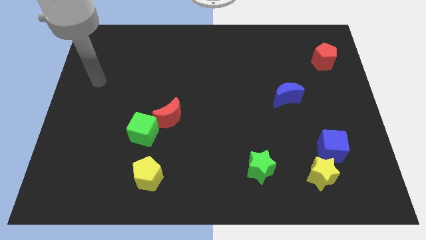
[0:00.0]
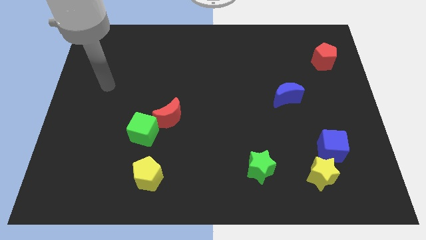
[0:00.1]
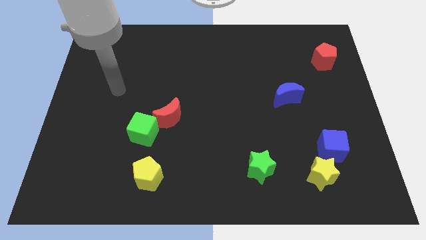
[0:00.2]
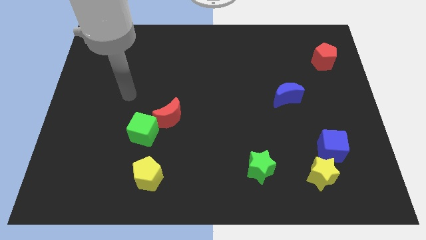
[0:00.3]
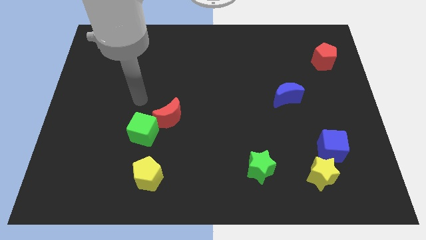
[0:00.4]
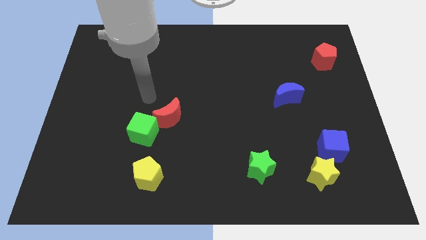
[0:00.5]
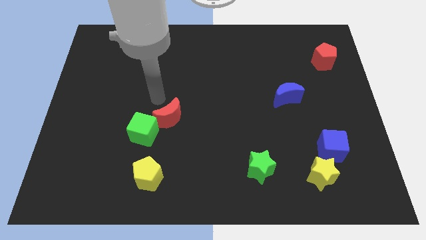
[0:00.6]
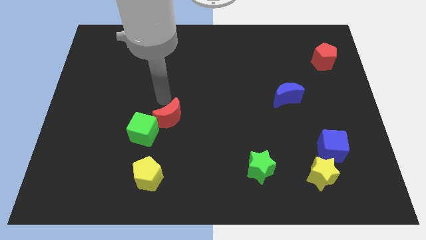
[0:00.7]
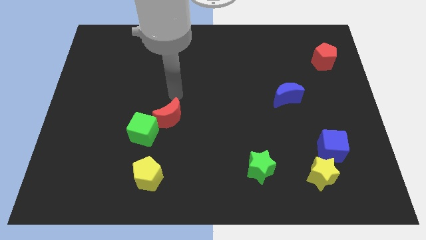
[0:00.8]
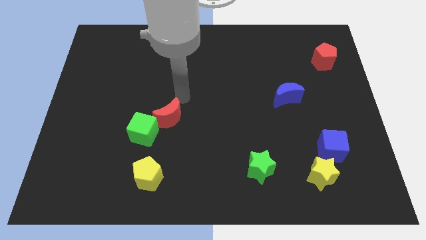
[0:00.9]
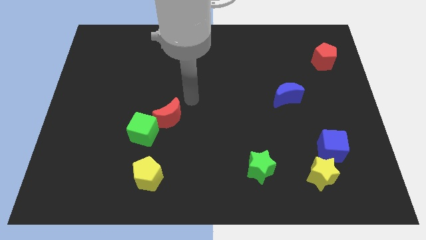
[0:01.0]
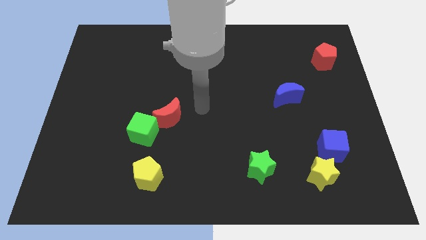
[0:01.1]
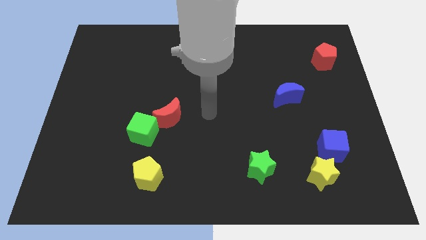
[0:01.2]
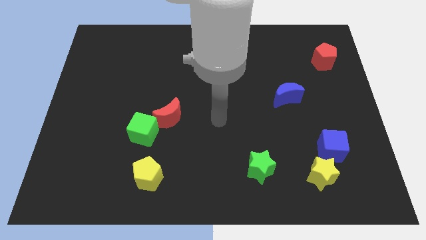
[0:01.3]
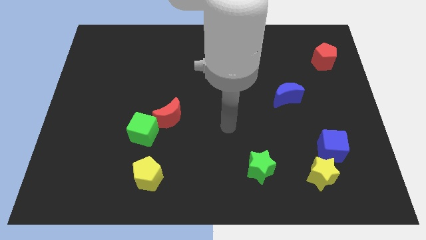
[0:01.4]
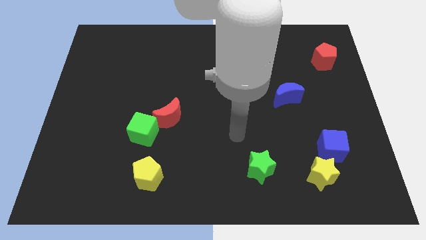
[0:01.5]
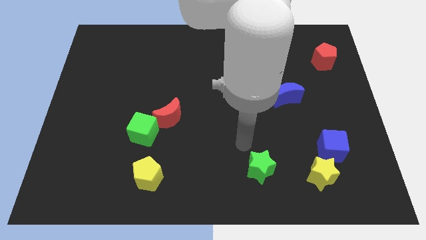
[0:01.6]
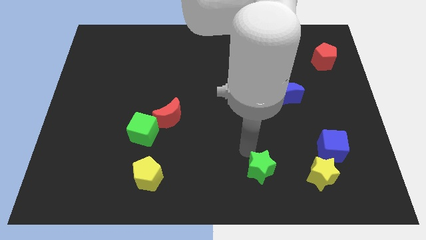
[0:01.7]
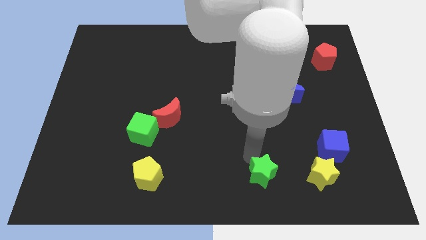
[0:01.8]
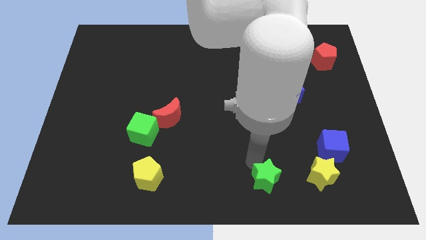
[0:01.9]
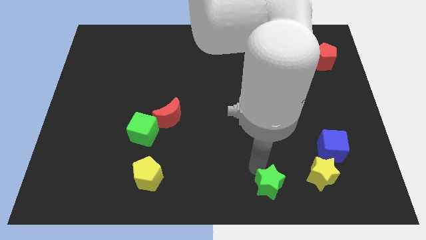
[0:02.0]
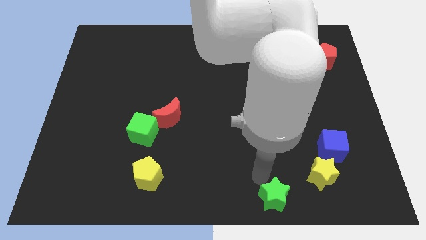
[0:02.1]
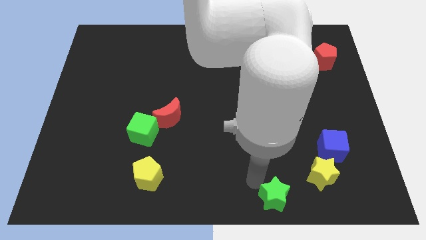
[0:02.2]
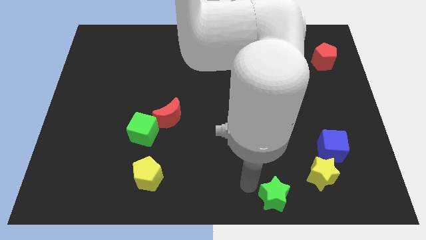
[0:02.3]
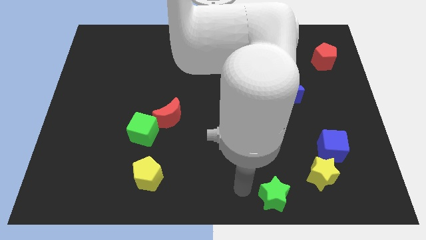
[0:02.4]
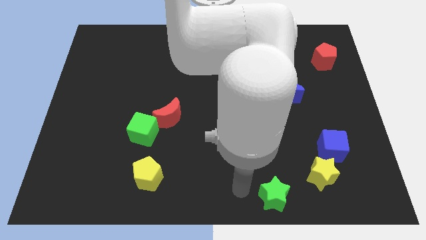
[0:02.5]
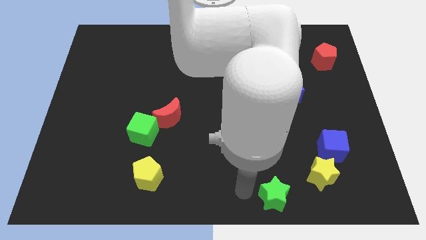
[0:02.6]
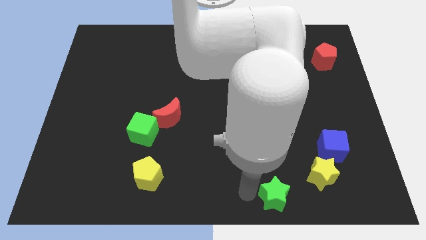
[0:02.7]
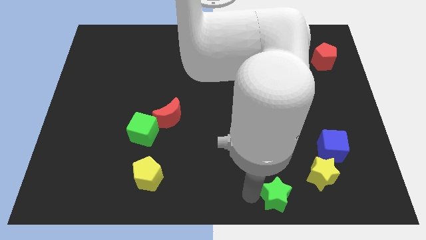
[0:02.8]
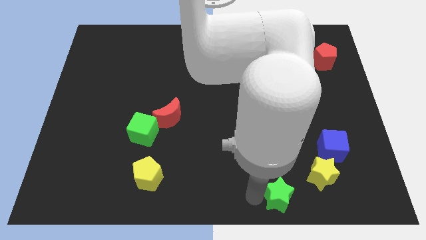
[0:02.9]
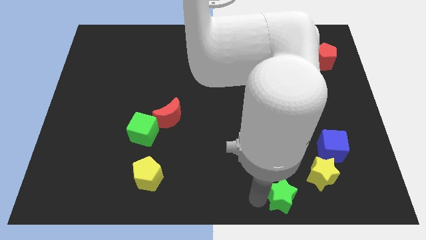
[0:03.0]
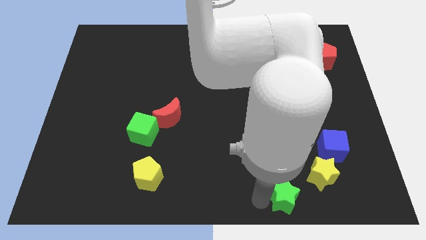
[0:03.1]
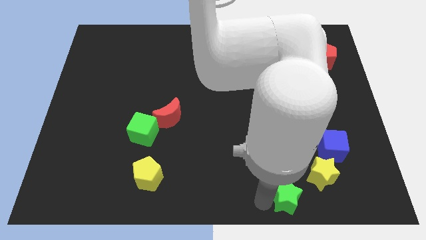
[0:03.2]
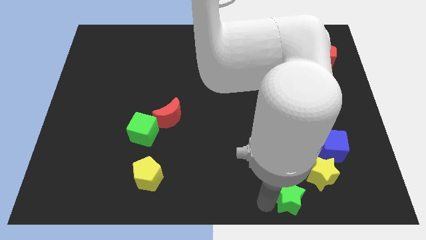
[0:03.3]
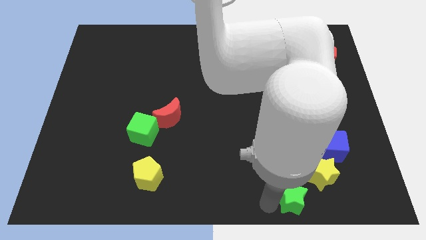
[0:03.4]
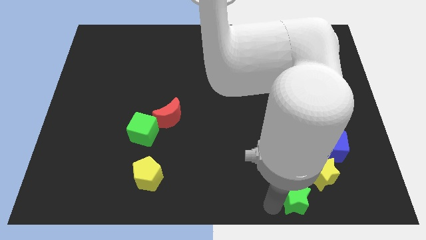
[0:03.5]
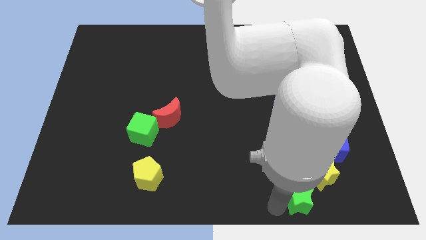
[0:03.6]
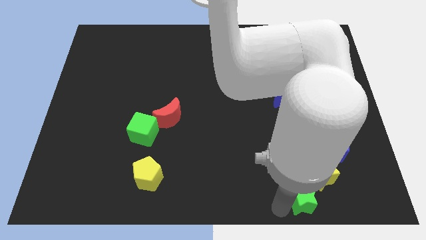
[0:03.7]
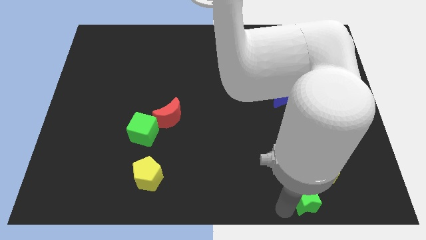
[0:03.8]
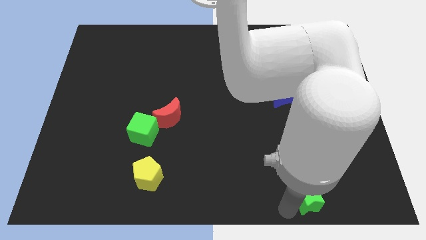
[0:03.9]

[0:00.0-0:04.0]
slide the green star to the right somewhat

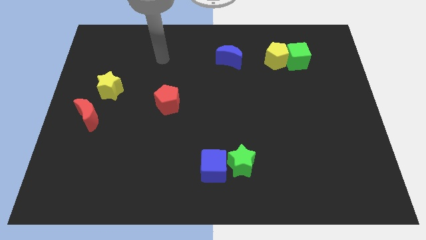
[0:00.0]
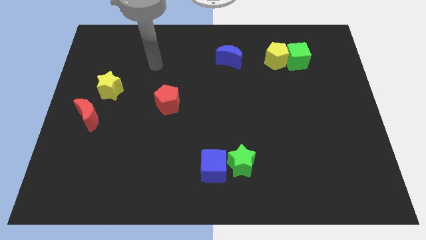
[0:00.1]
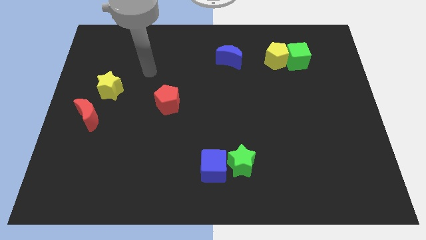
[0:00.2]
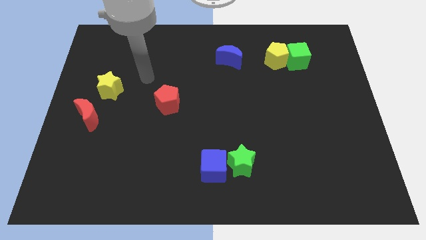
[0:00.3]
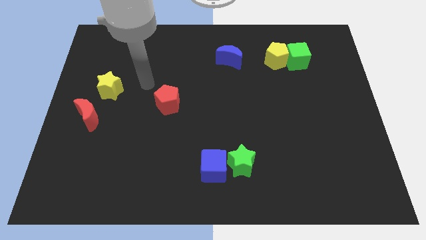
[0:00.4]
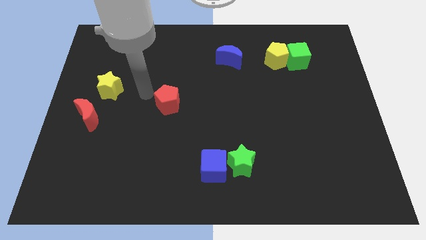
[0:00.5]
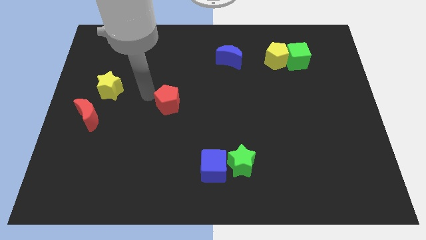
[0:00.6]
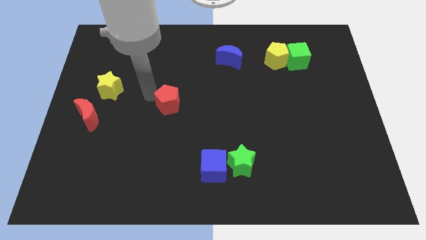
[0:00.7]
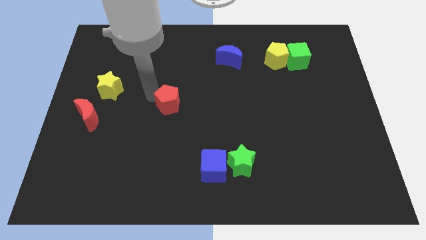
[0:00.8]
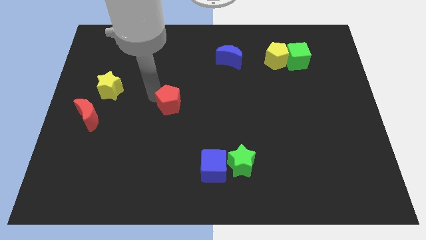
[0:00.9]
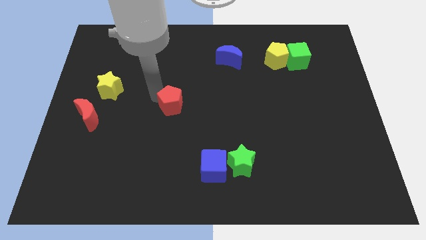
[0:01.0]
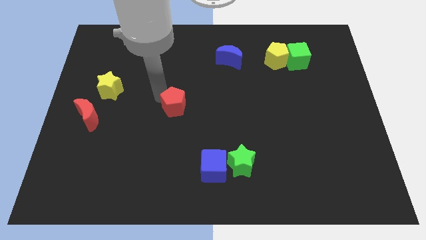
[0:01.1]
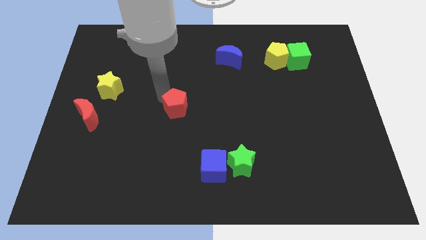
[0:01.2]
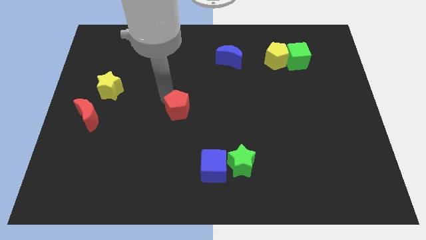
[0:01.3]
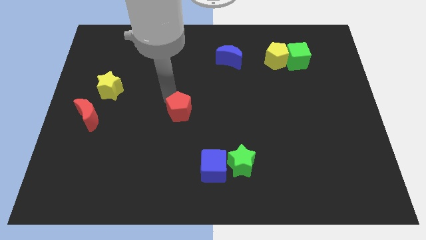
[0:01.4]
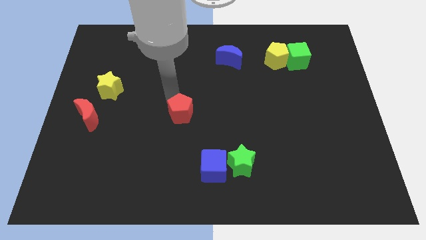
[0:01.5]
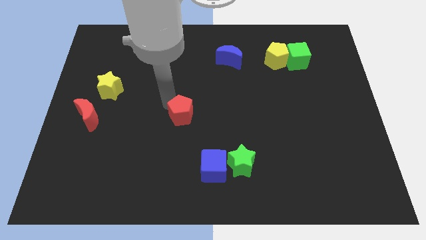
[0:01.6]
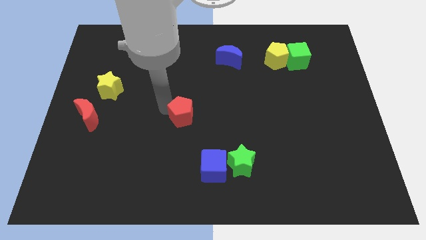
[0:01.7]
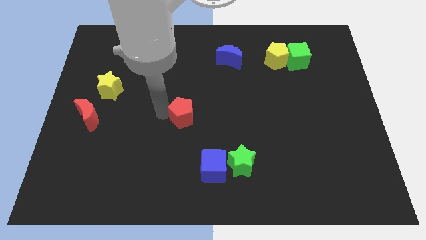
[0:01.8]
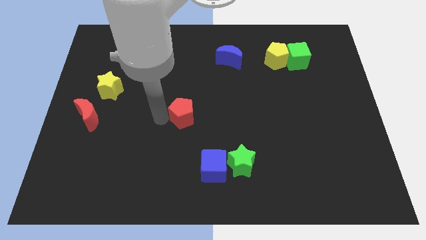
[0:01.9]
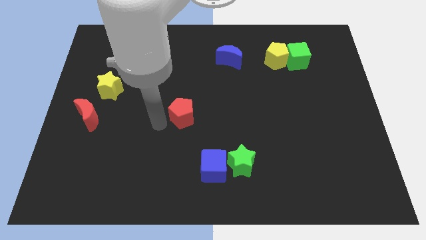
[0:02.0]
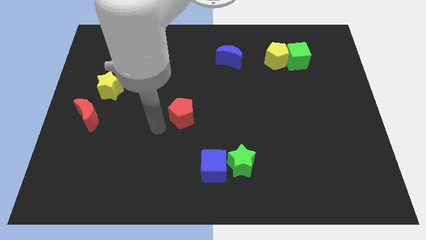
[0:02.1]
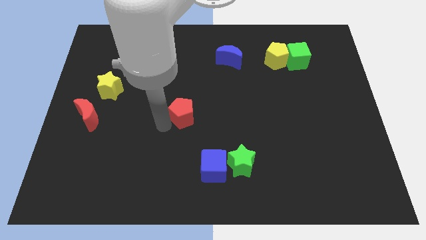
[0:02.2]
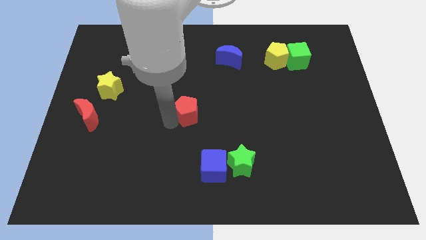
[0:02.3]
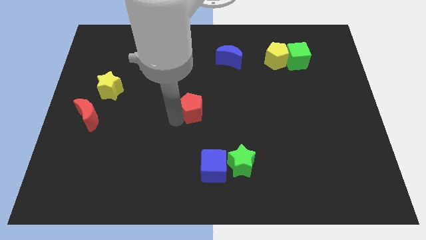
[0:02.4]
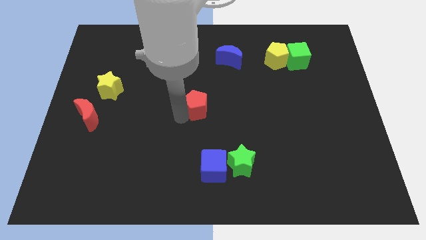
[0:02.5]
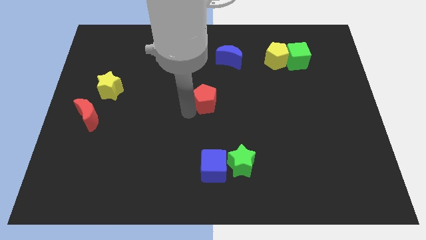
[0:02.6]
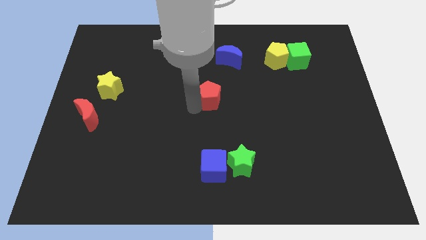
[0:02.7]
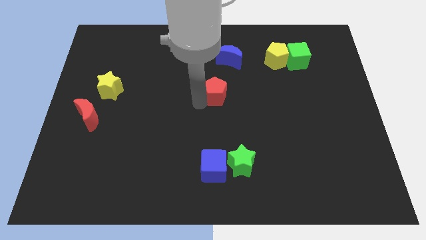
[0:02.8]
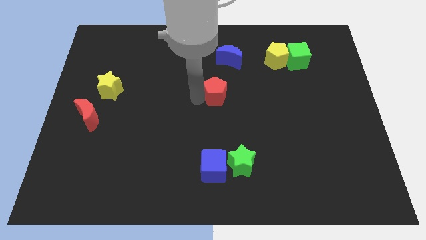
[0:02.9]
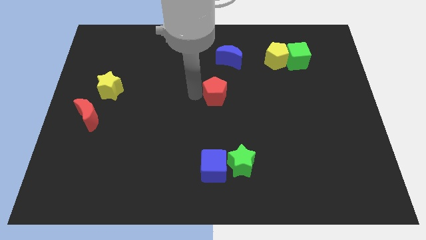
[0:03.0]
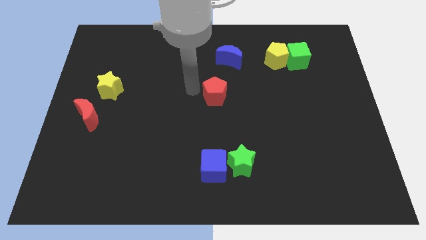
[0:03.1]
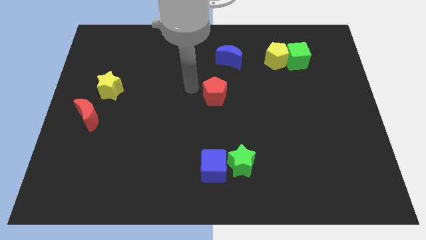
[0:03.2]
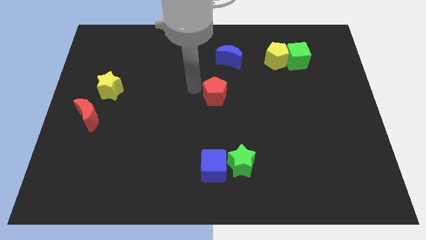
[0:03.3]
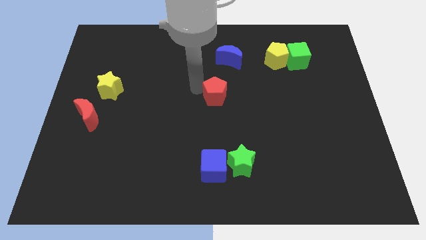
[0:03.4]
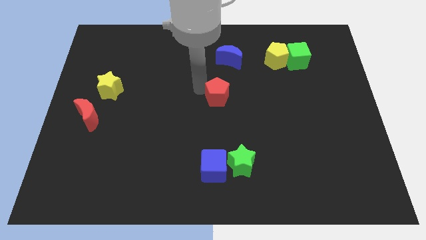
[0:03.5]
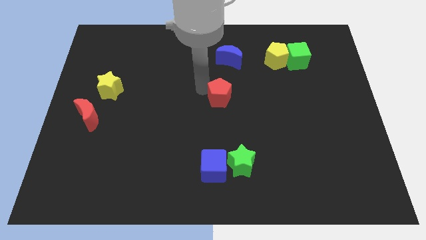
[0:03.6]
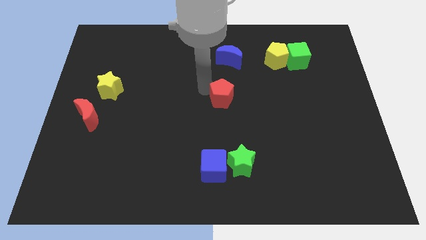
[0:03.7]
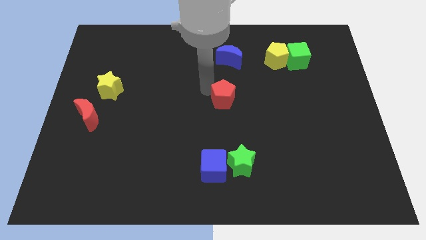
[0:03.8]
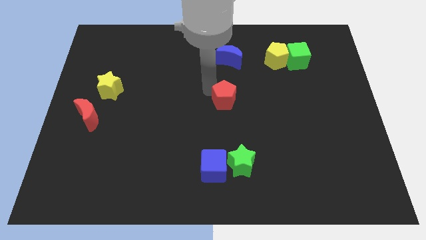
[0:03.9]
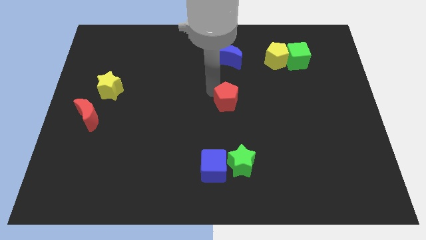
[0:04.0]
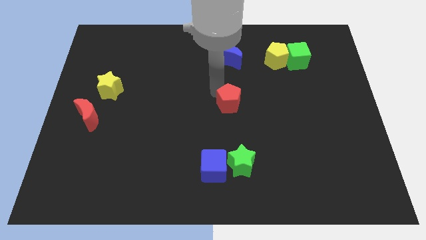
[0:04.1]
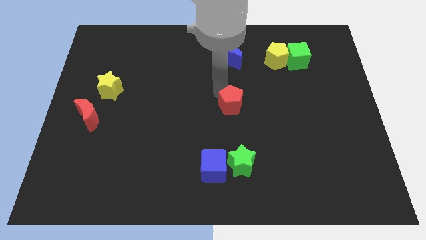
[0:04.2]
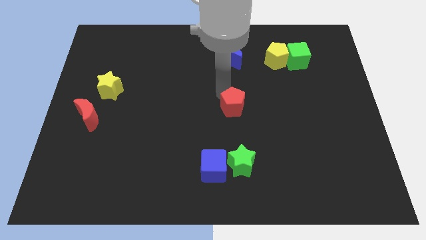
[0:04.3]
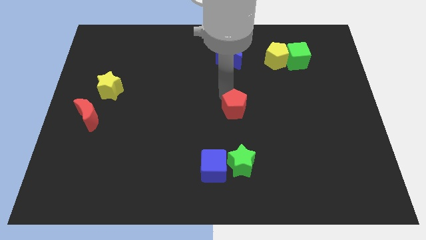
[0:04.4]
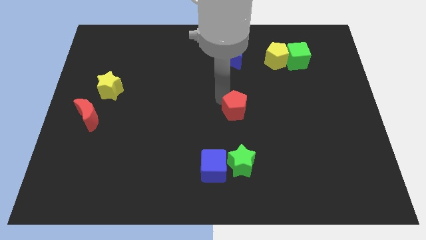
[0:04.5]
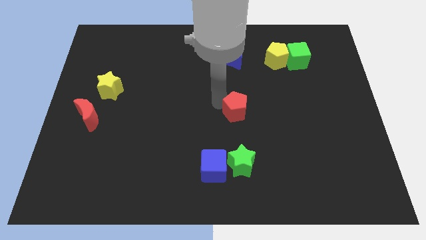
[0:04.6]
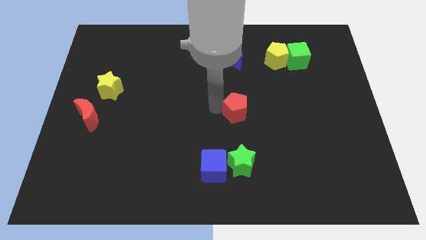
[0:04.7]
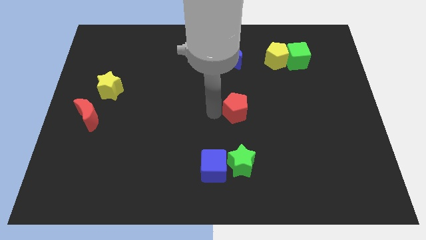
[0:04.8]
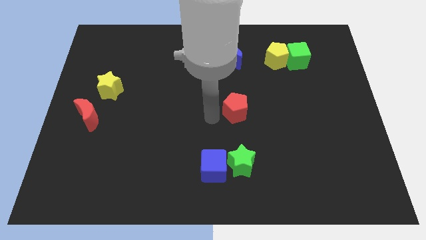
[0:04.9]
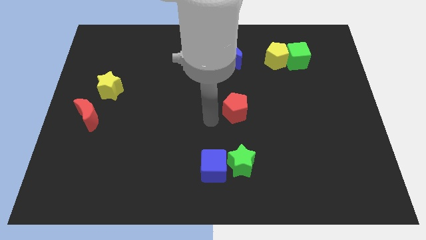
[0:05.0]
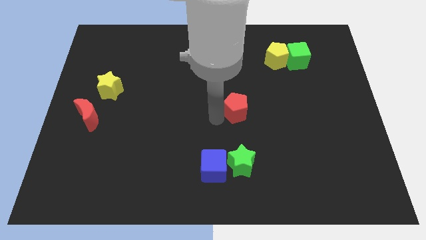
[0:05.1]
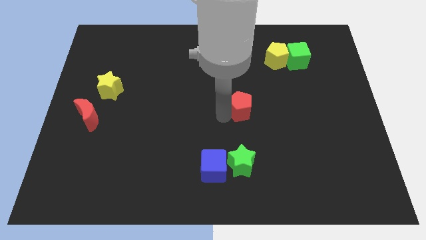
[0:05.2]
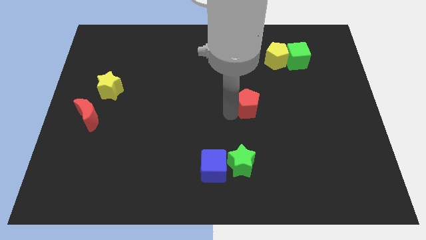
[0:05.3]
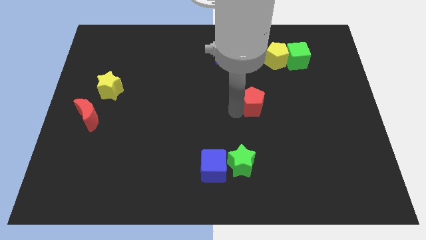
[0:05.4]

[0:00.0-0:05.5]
push the red pentagon right
